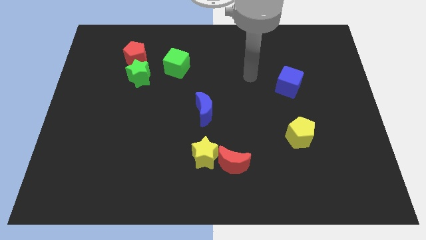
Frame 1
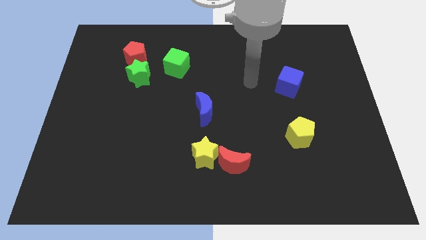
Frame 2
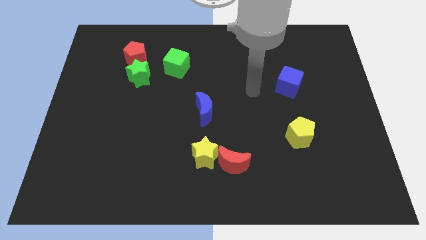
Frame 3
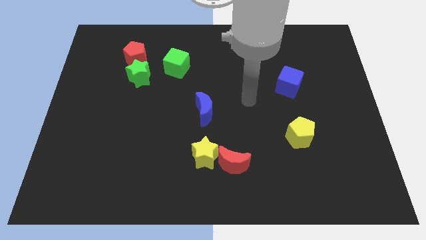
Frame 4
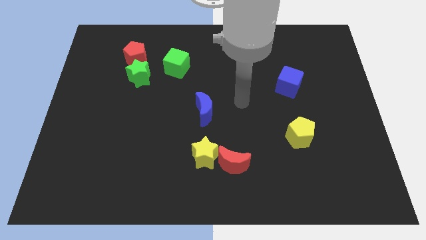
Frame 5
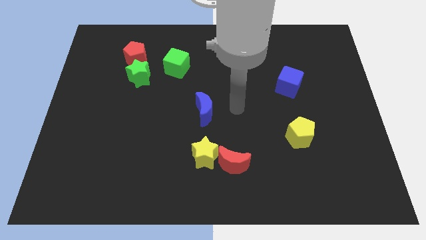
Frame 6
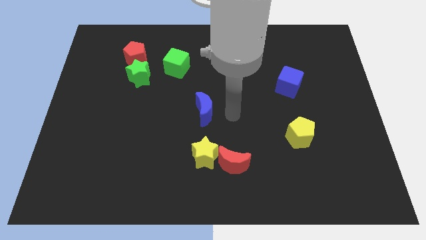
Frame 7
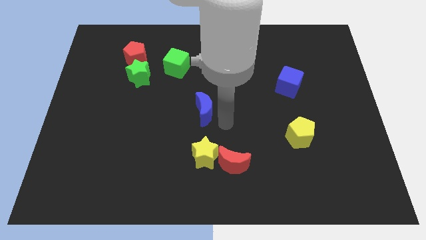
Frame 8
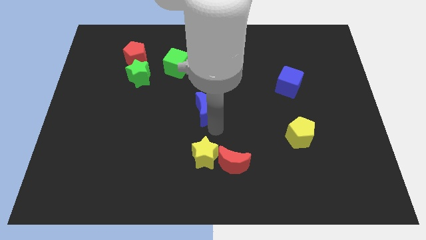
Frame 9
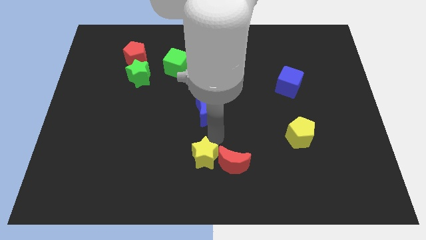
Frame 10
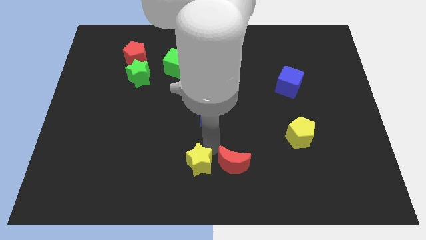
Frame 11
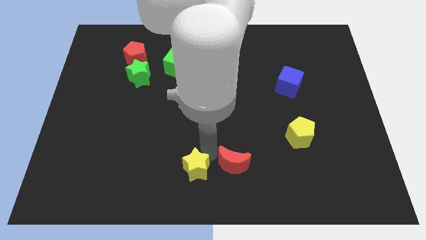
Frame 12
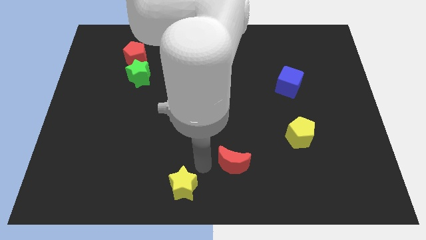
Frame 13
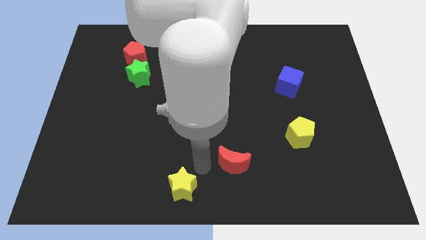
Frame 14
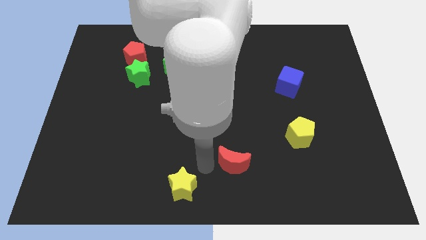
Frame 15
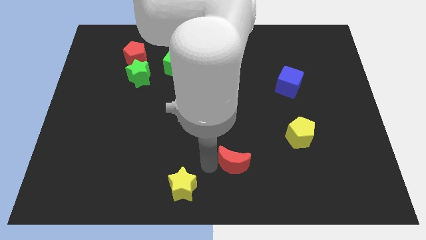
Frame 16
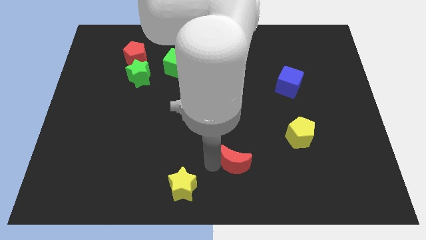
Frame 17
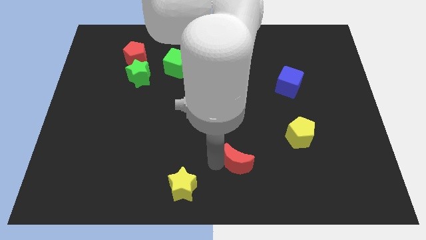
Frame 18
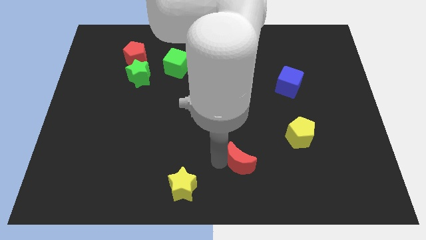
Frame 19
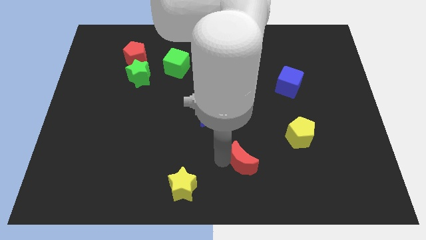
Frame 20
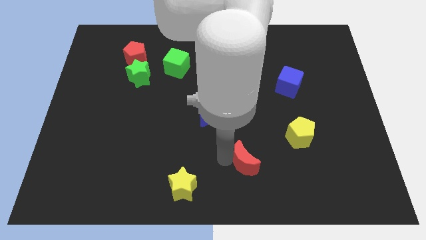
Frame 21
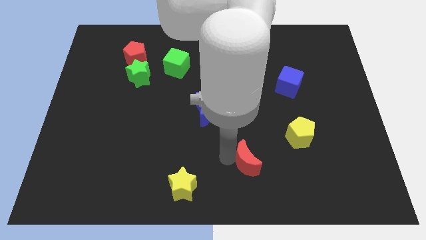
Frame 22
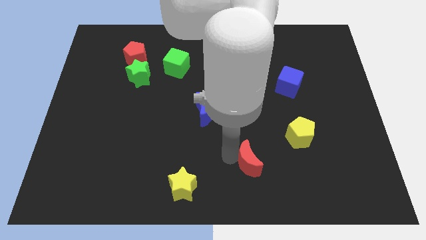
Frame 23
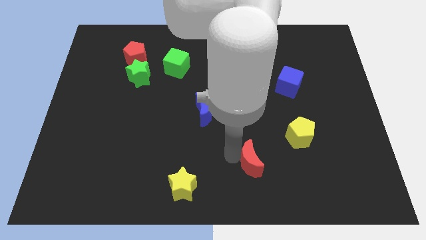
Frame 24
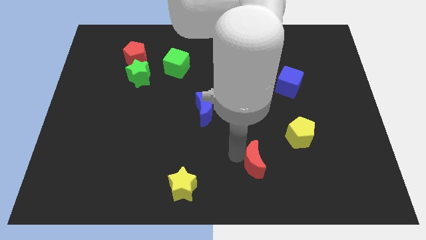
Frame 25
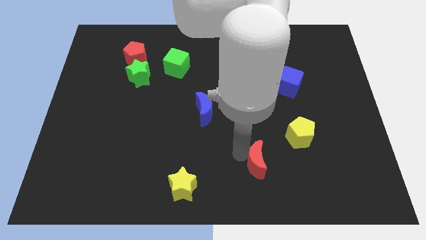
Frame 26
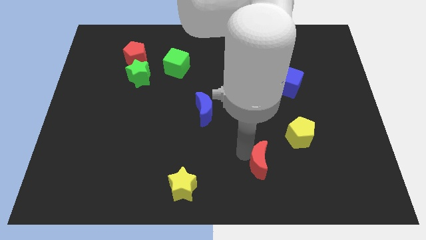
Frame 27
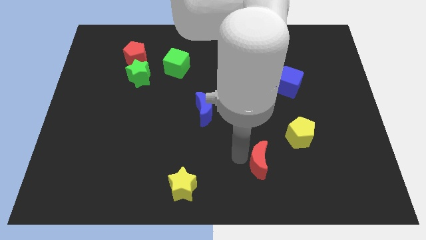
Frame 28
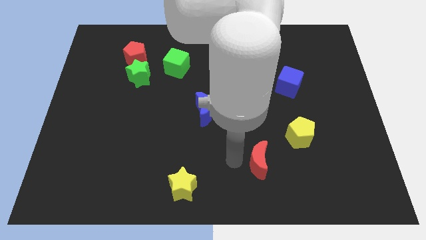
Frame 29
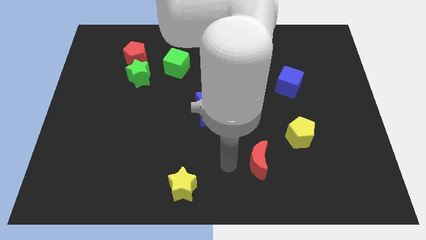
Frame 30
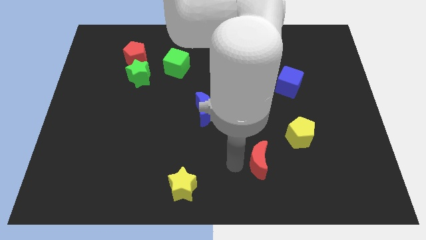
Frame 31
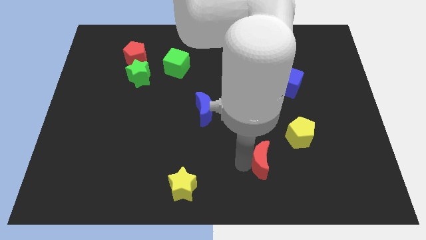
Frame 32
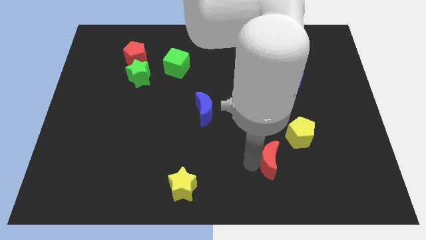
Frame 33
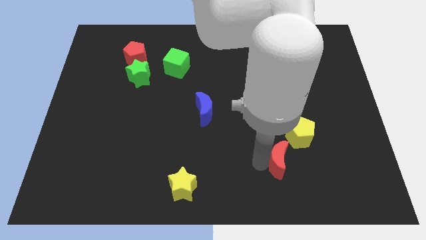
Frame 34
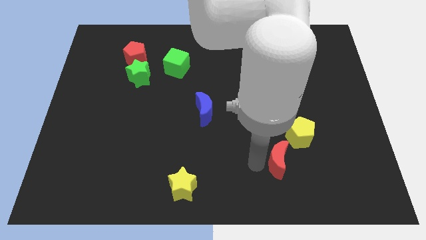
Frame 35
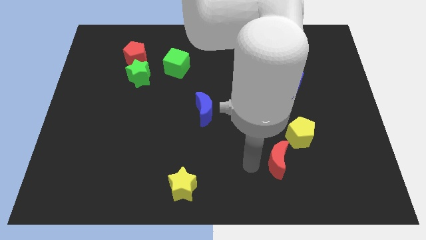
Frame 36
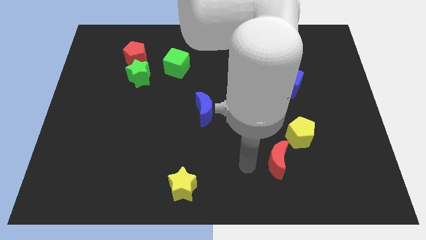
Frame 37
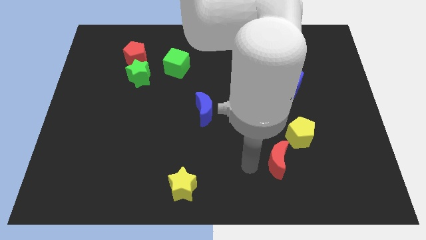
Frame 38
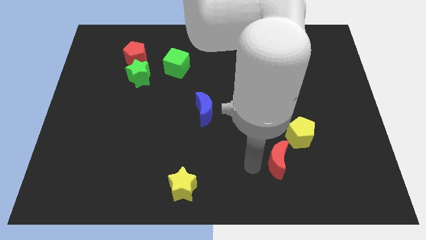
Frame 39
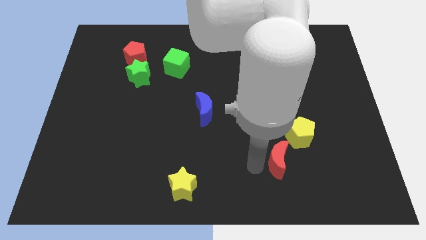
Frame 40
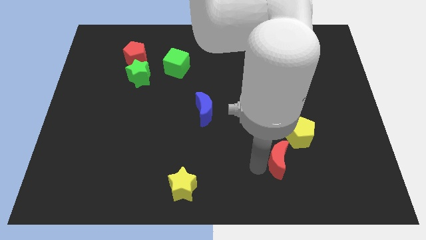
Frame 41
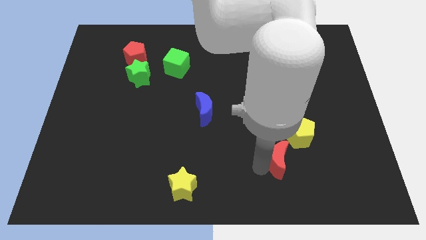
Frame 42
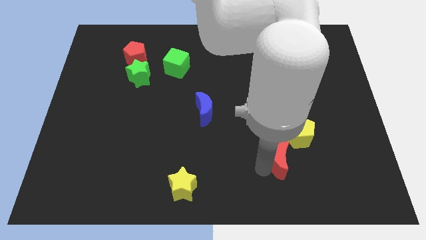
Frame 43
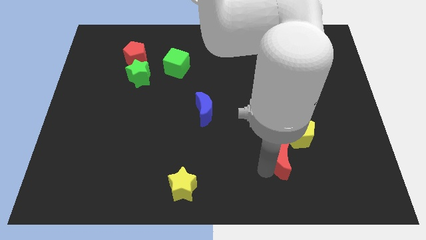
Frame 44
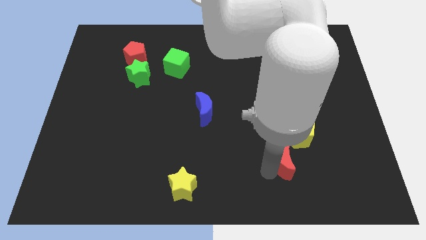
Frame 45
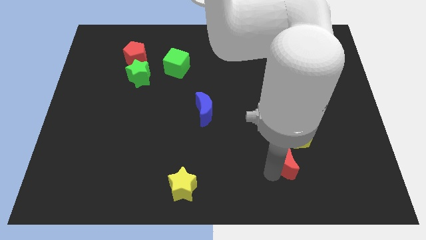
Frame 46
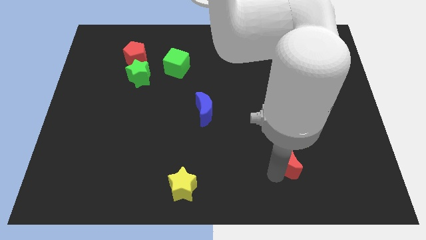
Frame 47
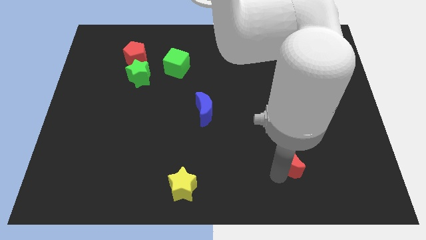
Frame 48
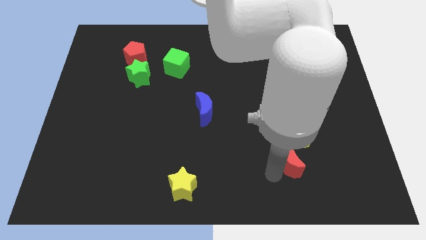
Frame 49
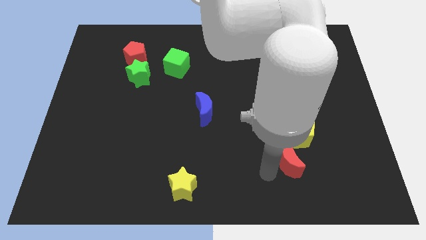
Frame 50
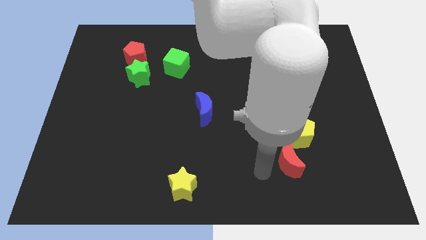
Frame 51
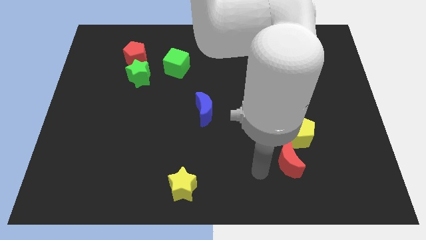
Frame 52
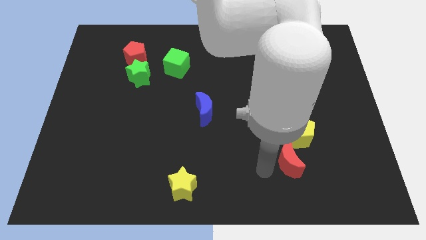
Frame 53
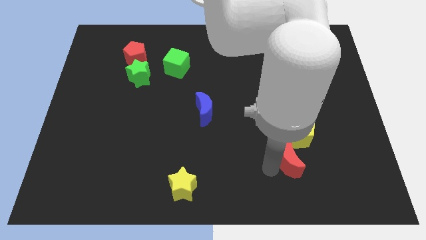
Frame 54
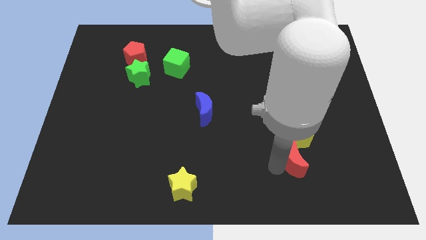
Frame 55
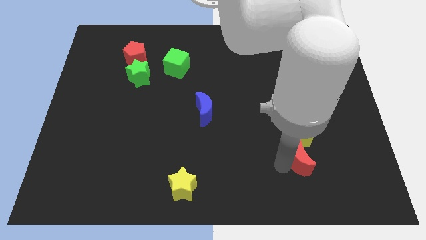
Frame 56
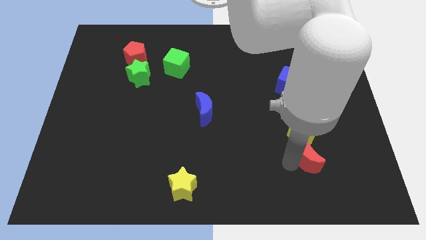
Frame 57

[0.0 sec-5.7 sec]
move the red moon diagonally down and to the right of the yellow pentagon

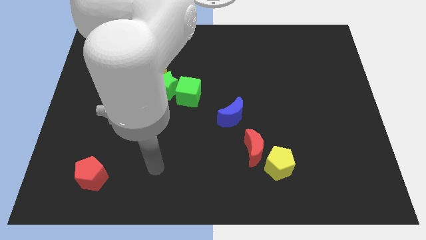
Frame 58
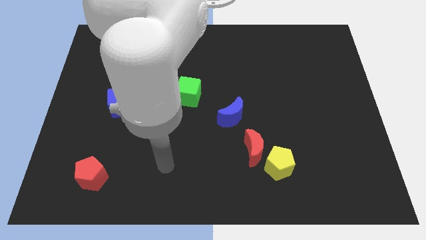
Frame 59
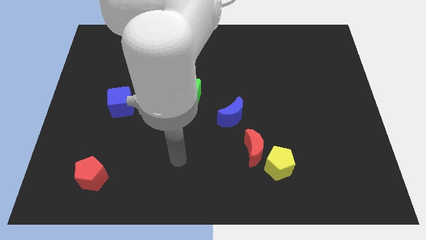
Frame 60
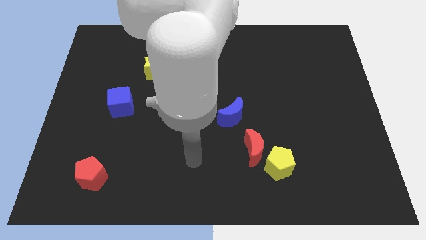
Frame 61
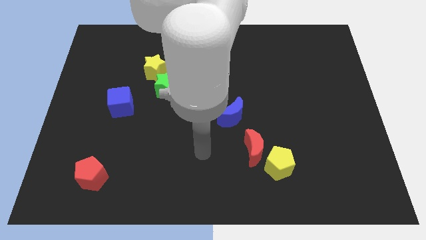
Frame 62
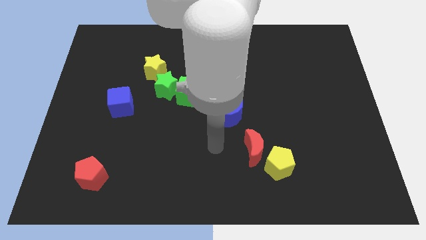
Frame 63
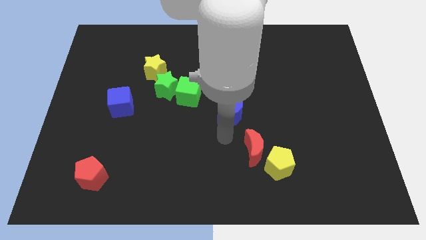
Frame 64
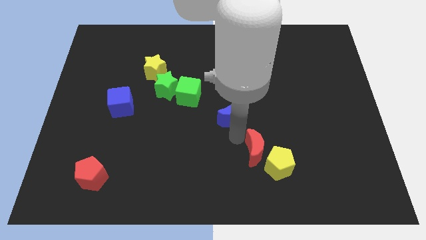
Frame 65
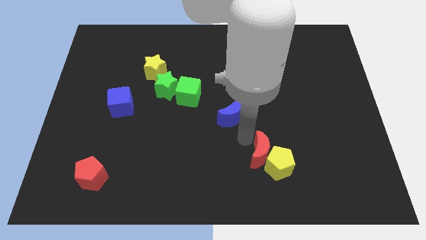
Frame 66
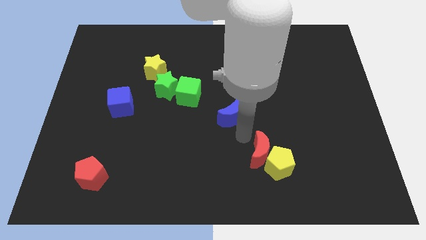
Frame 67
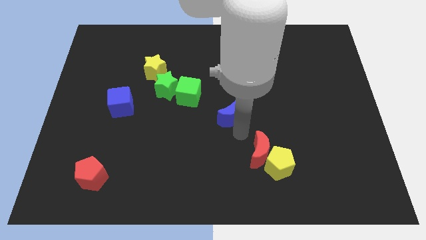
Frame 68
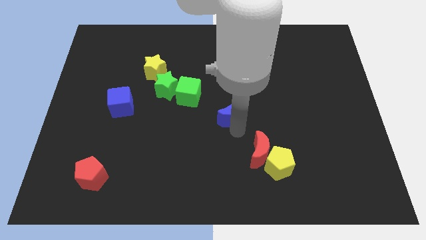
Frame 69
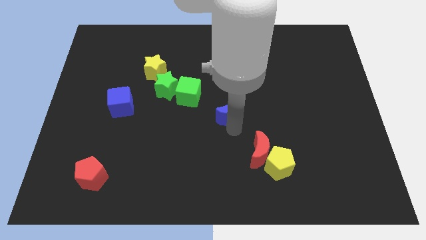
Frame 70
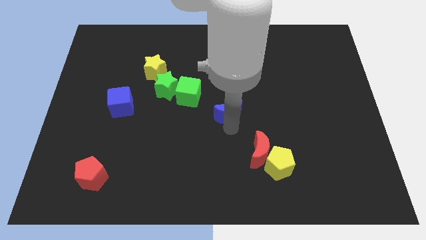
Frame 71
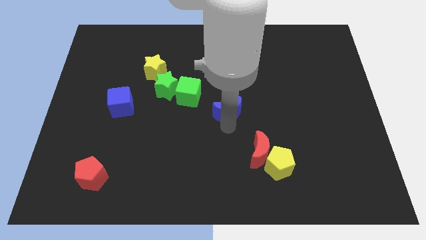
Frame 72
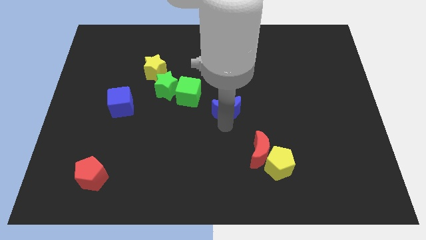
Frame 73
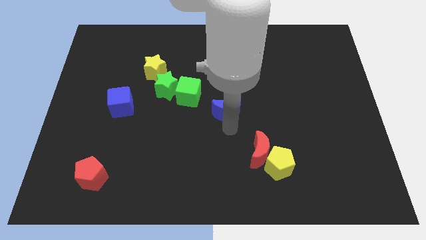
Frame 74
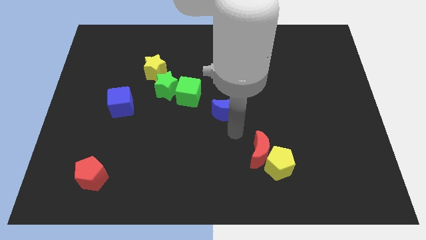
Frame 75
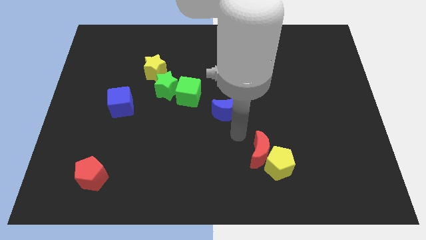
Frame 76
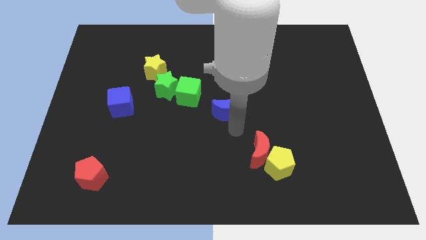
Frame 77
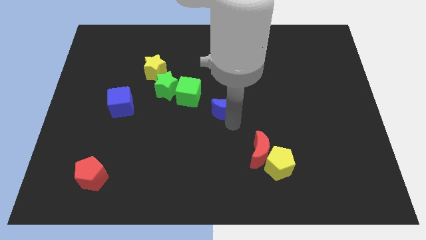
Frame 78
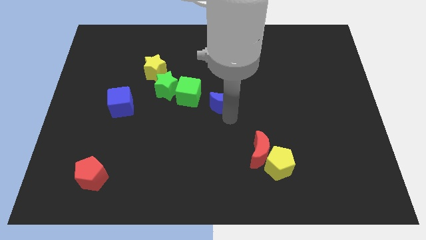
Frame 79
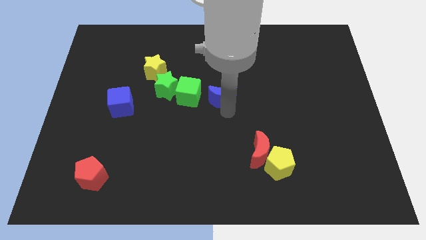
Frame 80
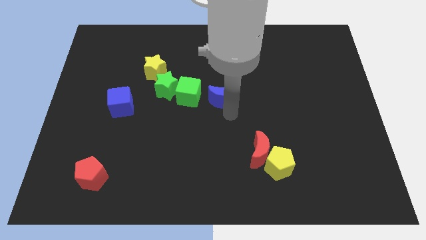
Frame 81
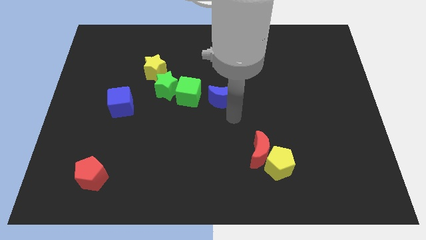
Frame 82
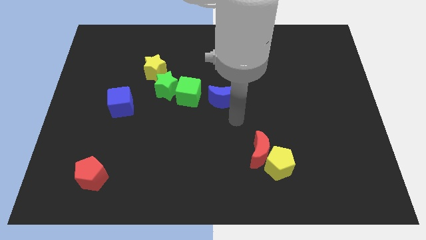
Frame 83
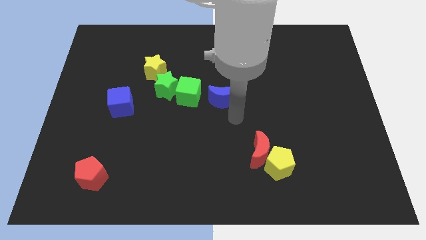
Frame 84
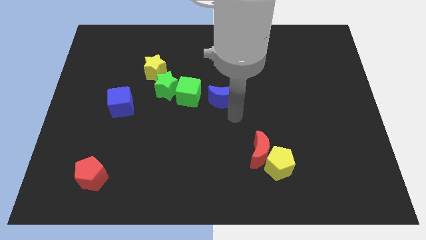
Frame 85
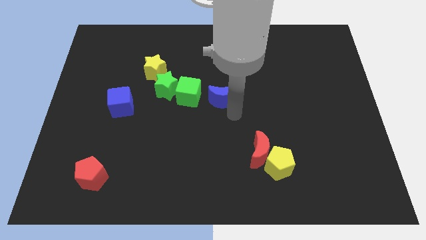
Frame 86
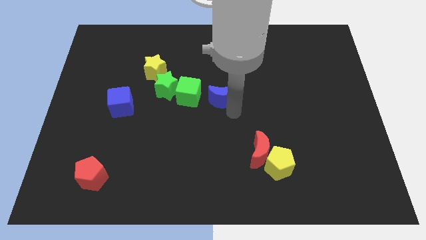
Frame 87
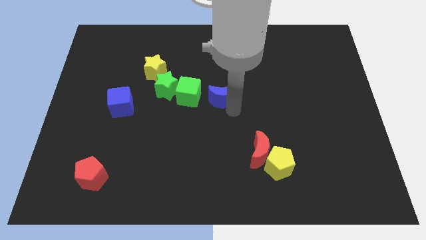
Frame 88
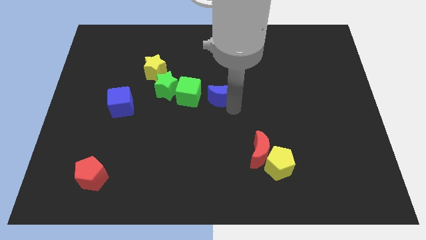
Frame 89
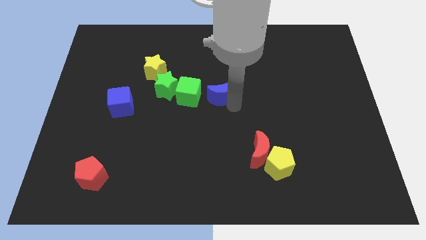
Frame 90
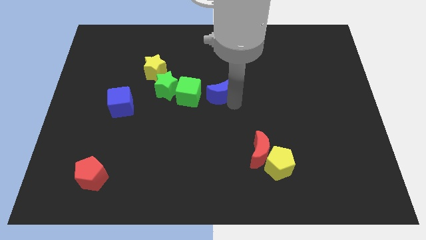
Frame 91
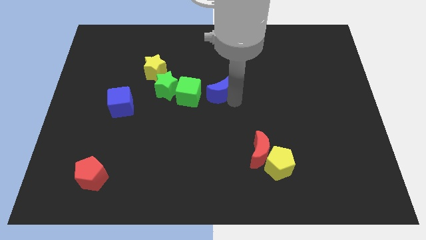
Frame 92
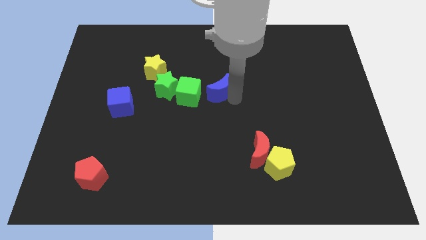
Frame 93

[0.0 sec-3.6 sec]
slide the blue moon to the top right side of the green cube
